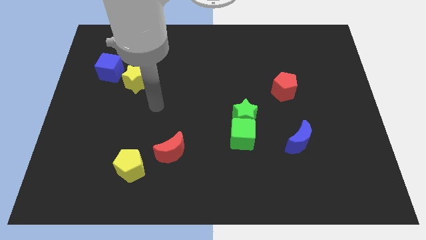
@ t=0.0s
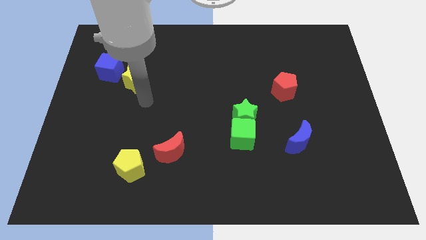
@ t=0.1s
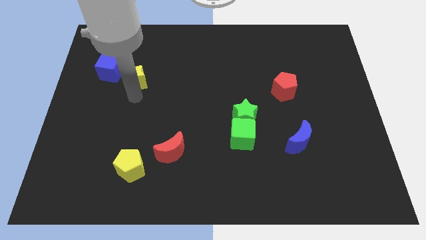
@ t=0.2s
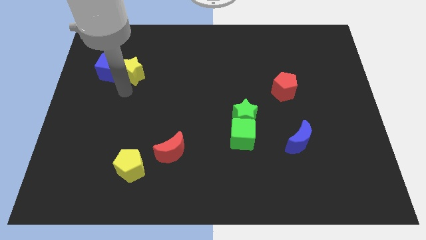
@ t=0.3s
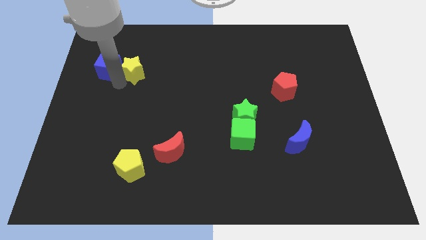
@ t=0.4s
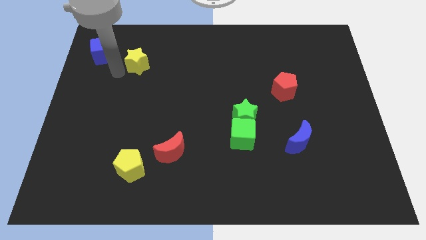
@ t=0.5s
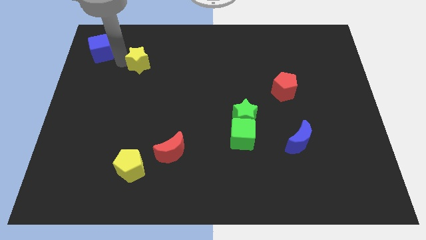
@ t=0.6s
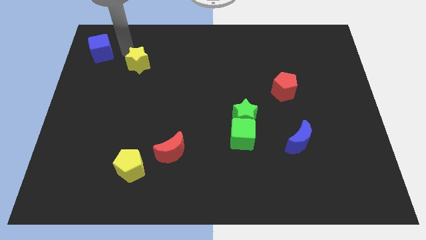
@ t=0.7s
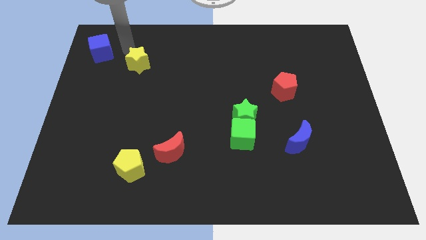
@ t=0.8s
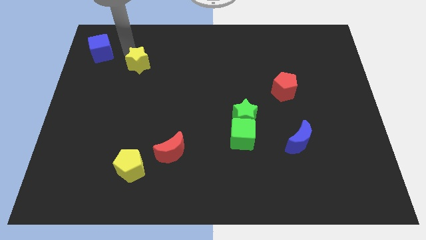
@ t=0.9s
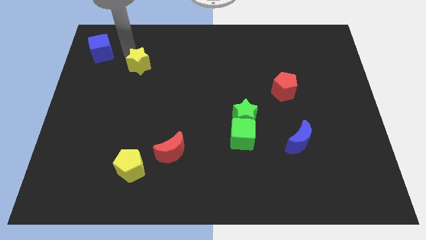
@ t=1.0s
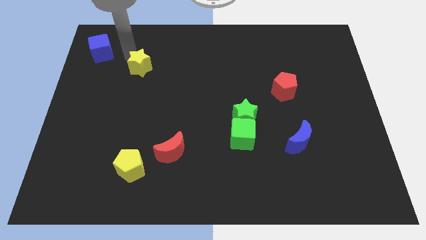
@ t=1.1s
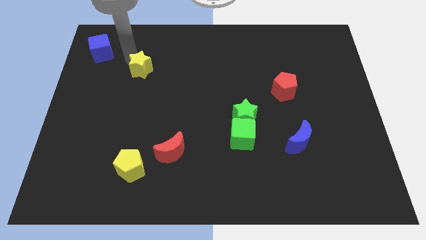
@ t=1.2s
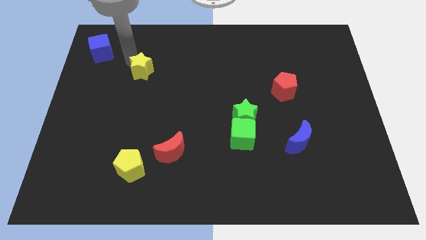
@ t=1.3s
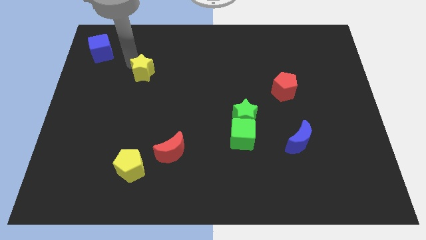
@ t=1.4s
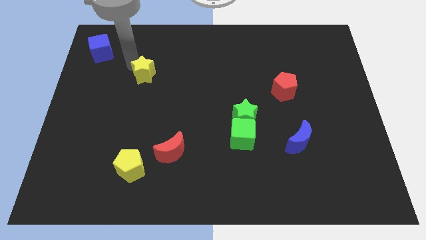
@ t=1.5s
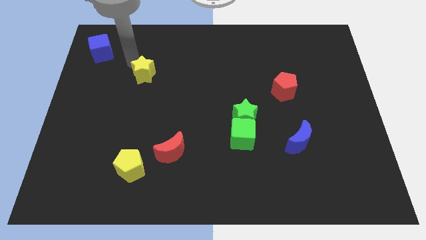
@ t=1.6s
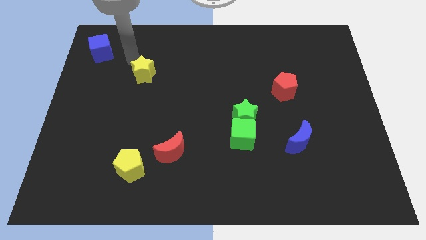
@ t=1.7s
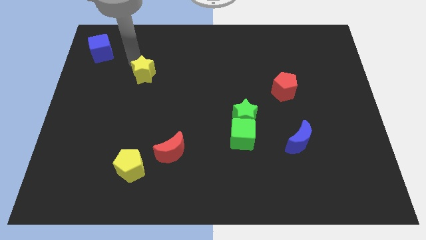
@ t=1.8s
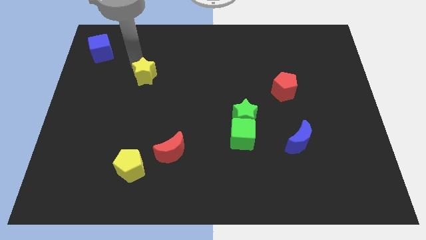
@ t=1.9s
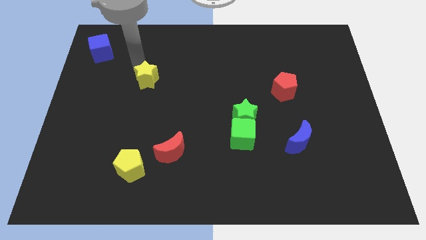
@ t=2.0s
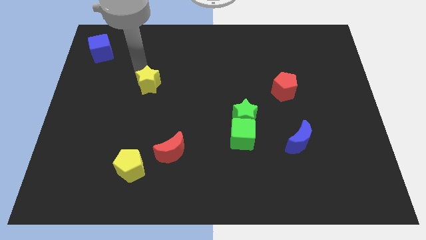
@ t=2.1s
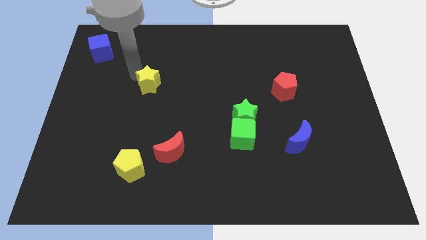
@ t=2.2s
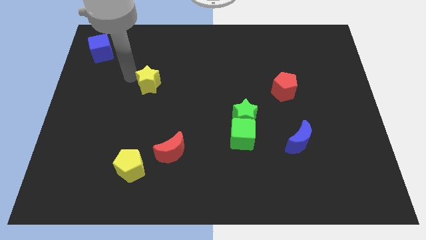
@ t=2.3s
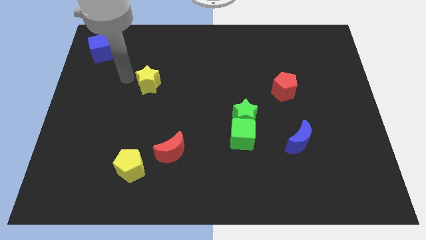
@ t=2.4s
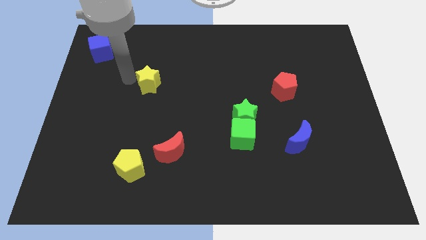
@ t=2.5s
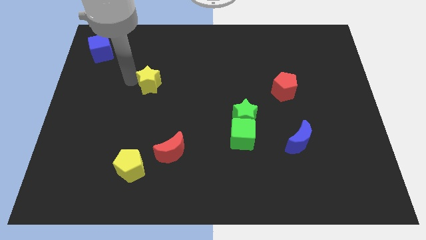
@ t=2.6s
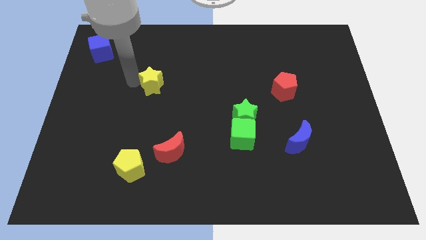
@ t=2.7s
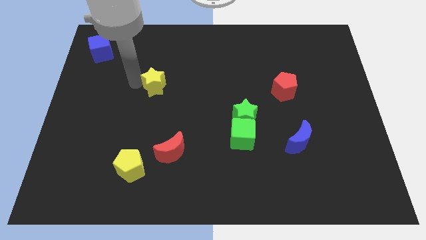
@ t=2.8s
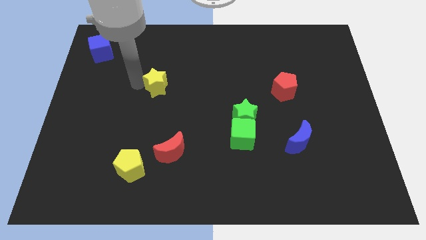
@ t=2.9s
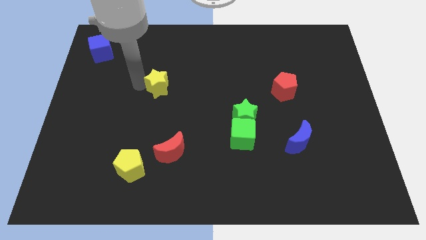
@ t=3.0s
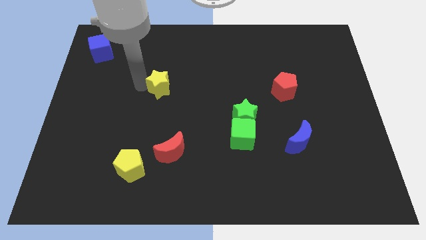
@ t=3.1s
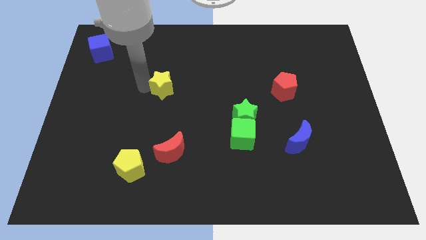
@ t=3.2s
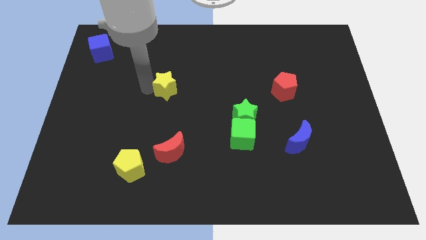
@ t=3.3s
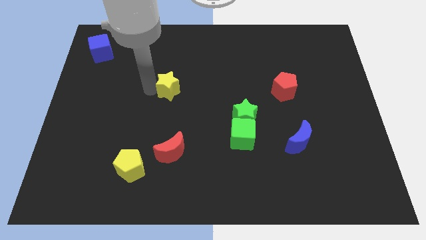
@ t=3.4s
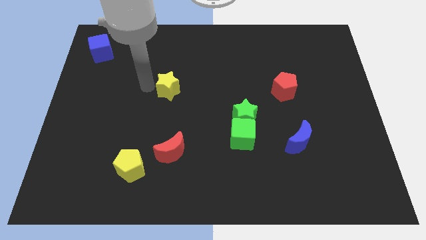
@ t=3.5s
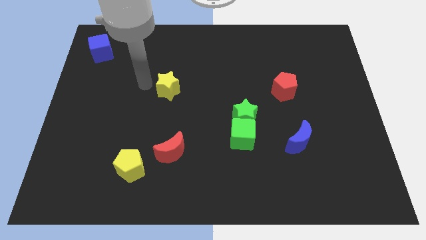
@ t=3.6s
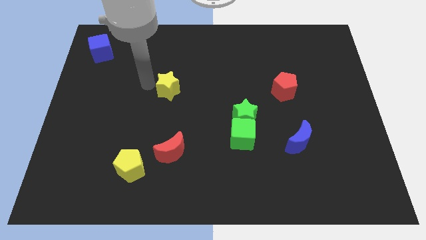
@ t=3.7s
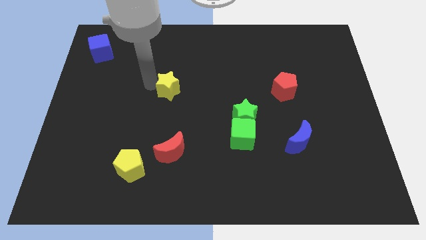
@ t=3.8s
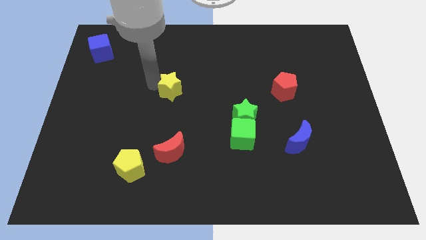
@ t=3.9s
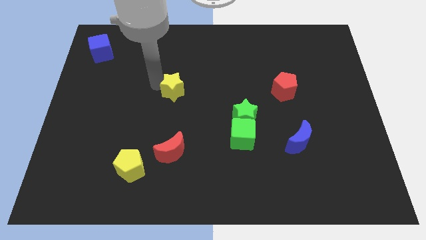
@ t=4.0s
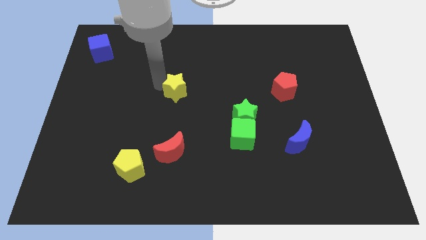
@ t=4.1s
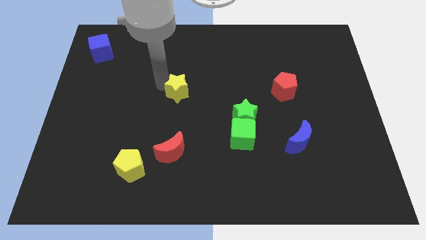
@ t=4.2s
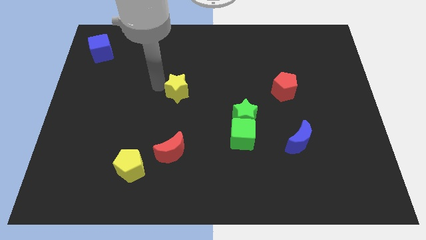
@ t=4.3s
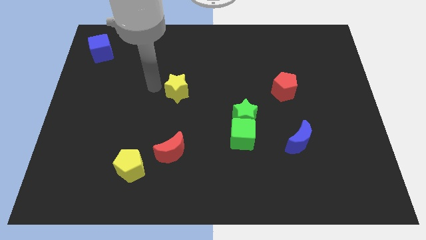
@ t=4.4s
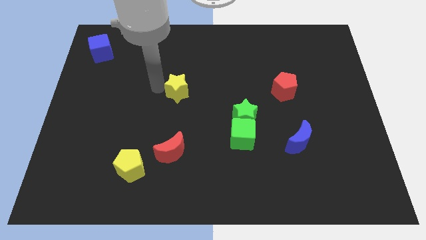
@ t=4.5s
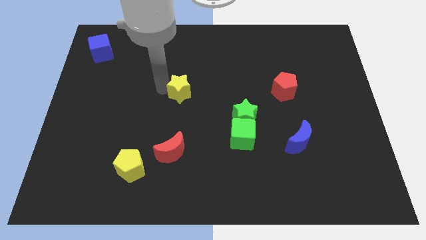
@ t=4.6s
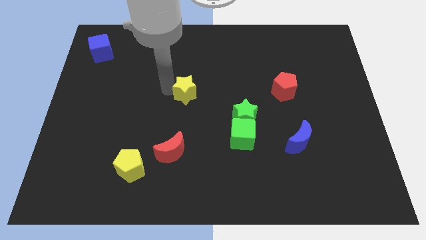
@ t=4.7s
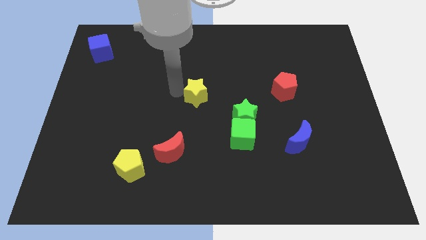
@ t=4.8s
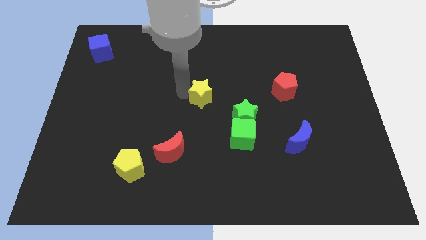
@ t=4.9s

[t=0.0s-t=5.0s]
slide the yellow star to the top left side of the green star

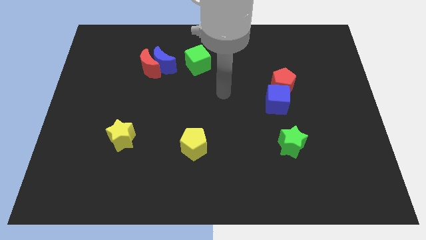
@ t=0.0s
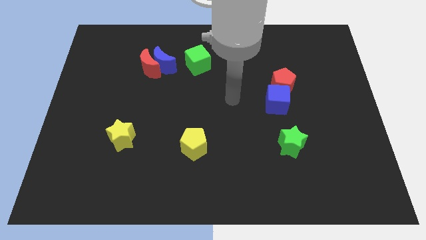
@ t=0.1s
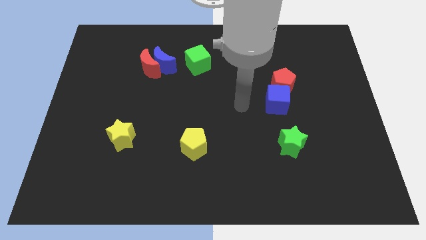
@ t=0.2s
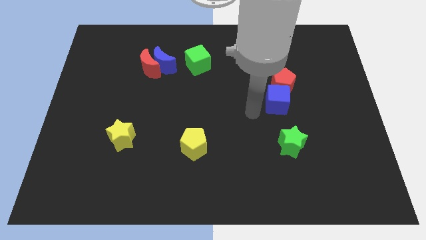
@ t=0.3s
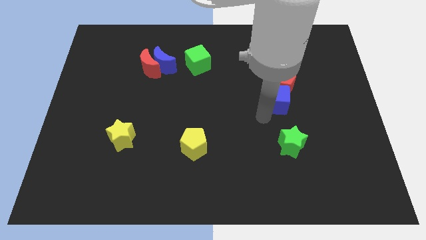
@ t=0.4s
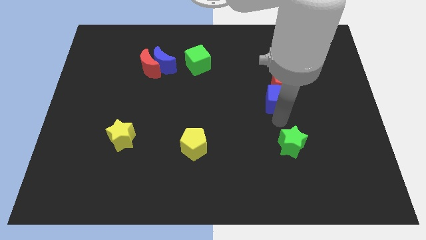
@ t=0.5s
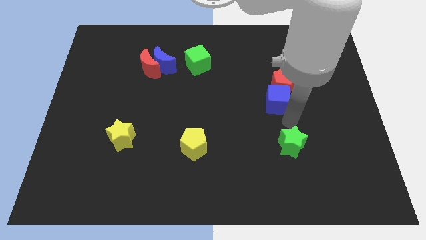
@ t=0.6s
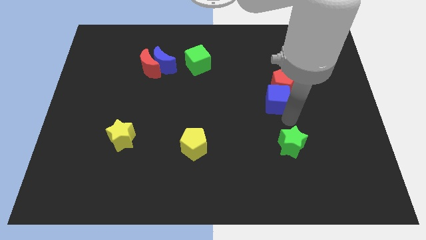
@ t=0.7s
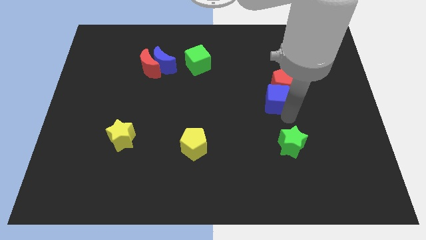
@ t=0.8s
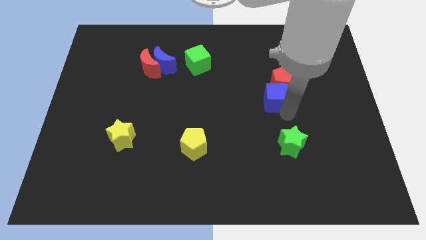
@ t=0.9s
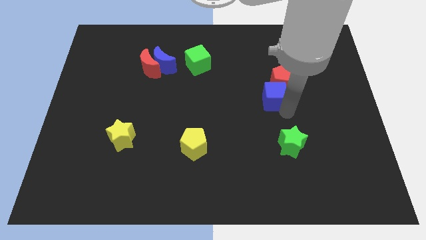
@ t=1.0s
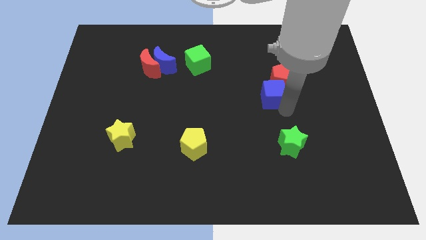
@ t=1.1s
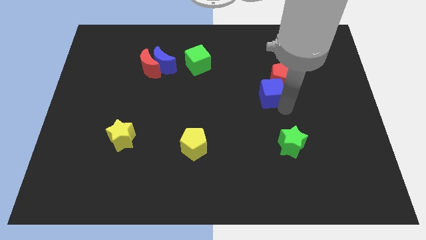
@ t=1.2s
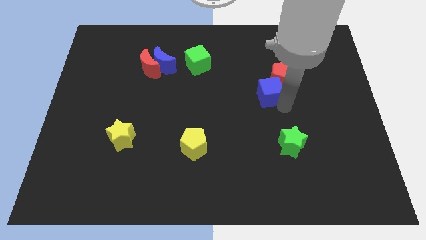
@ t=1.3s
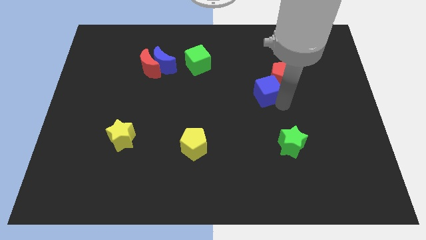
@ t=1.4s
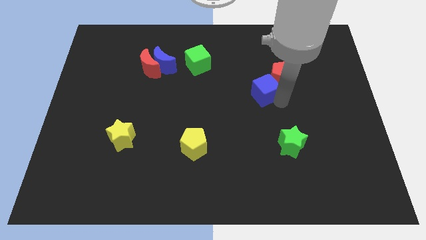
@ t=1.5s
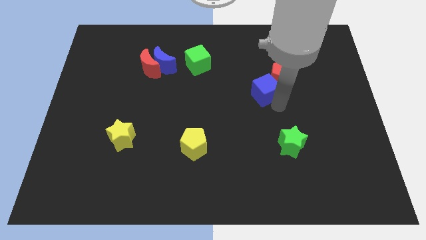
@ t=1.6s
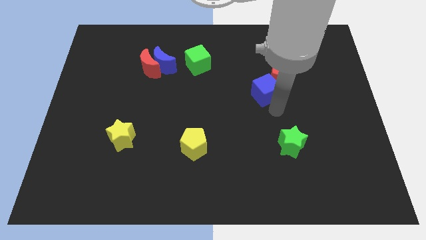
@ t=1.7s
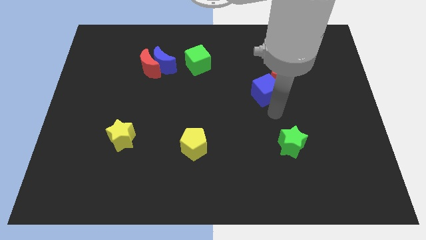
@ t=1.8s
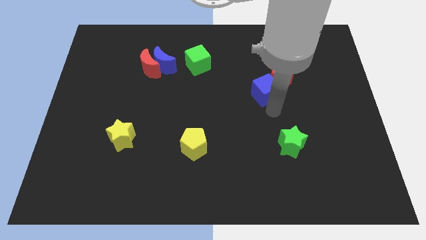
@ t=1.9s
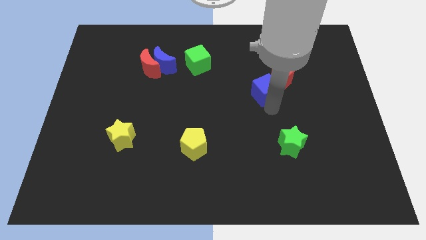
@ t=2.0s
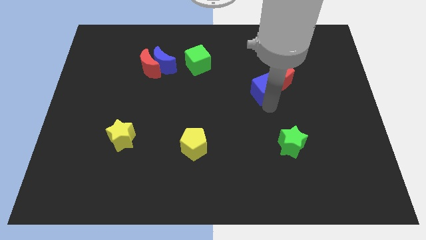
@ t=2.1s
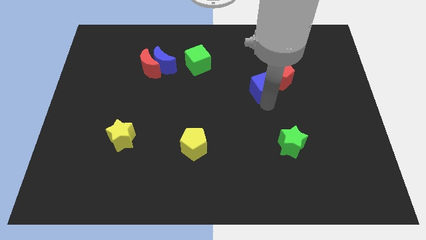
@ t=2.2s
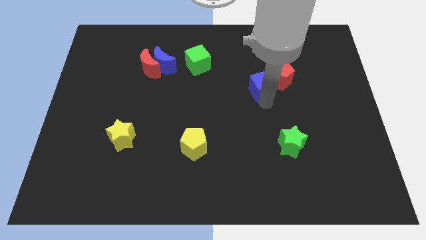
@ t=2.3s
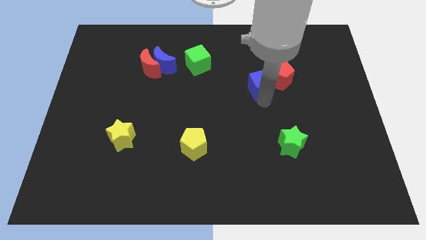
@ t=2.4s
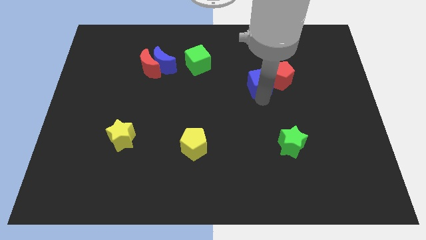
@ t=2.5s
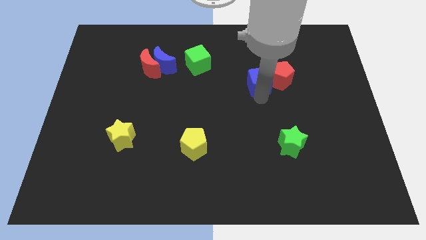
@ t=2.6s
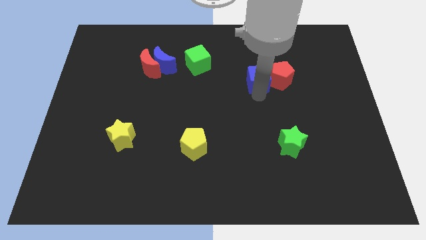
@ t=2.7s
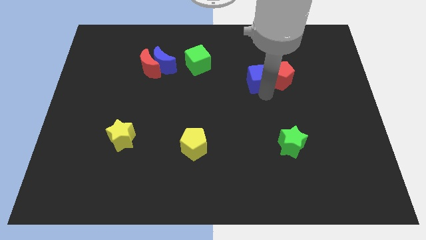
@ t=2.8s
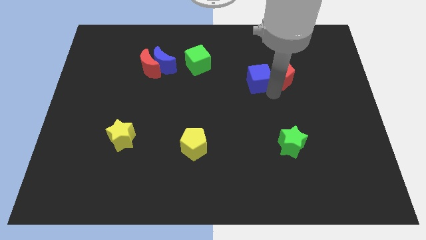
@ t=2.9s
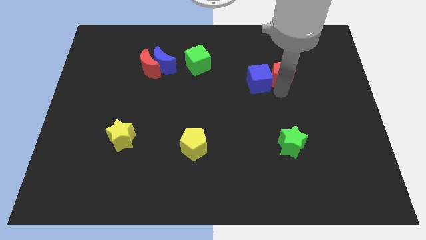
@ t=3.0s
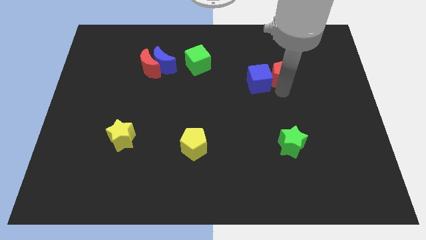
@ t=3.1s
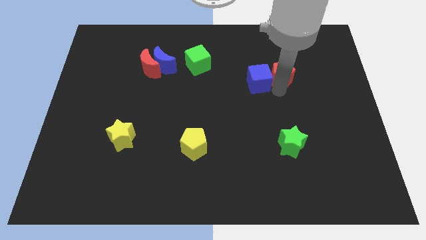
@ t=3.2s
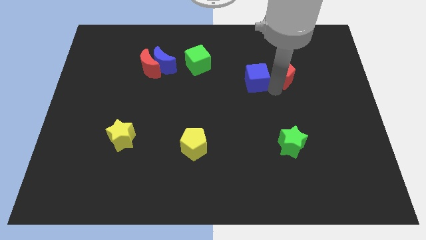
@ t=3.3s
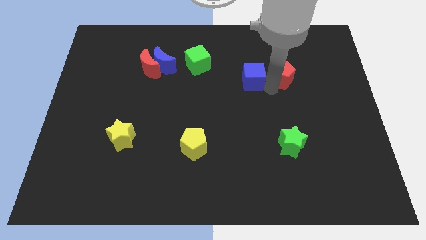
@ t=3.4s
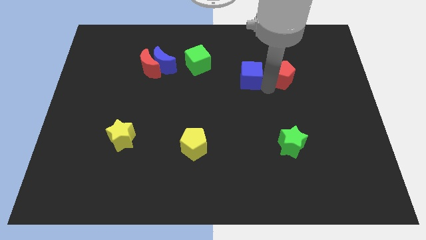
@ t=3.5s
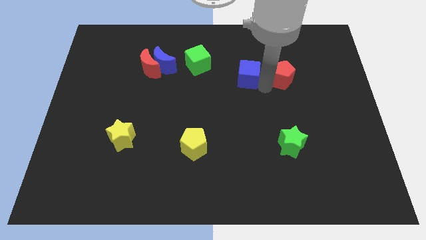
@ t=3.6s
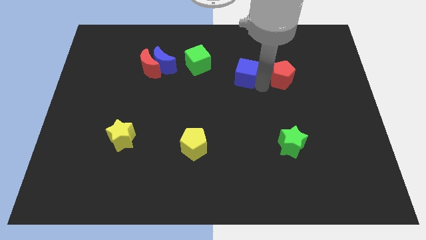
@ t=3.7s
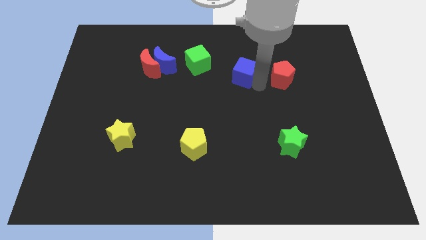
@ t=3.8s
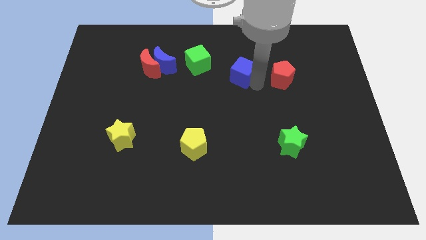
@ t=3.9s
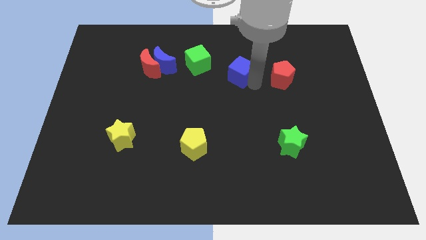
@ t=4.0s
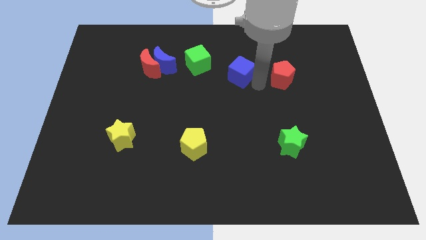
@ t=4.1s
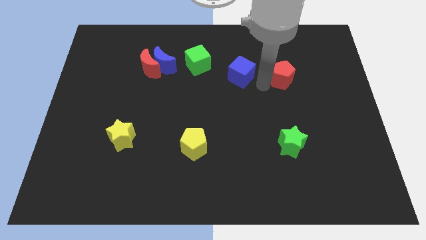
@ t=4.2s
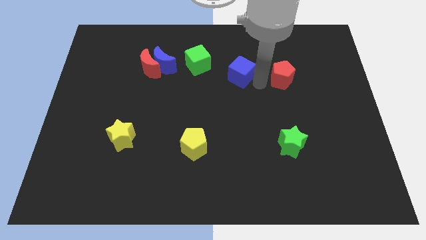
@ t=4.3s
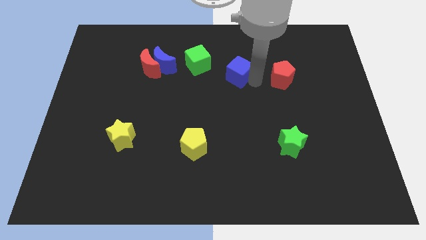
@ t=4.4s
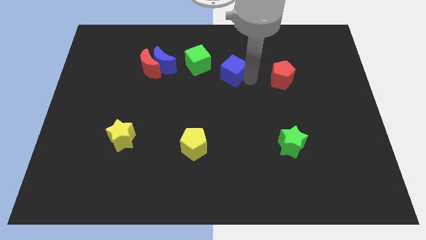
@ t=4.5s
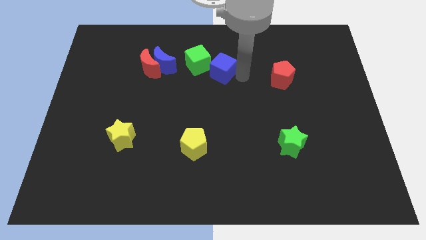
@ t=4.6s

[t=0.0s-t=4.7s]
put the blue cube just right of the blue moon
